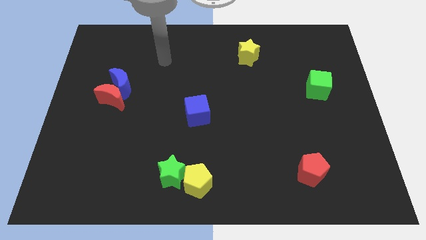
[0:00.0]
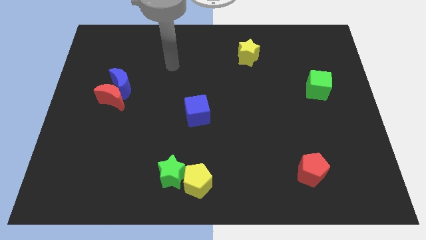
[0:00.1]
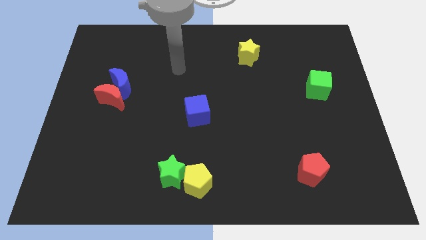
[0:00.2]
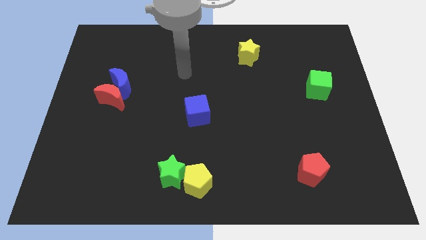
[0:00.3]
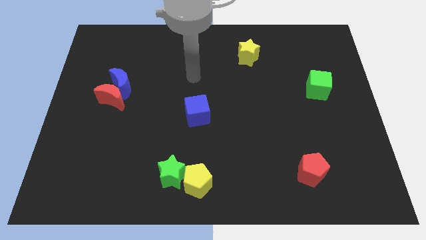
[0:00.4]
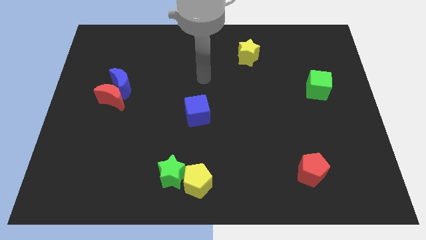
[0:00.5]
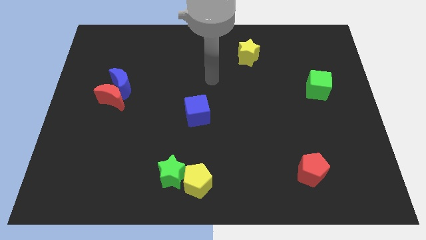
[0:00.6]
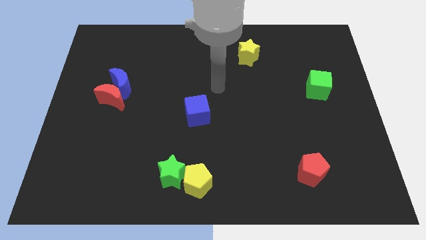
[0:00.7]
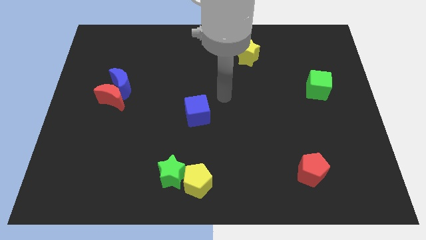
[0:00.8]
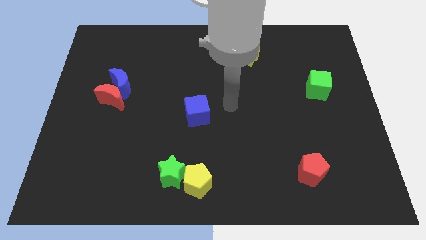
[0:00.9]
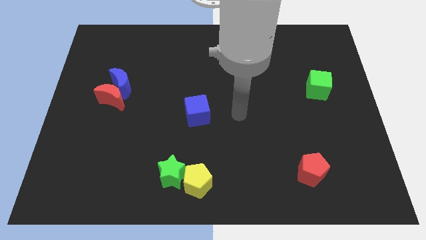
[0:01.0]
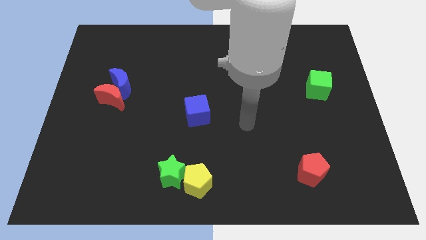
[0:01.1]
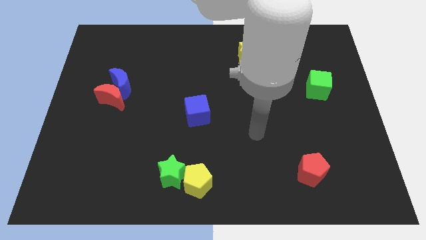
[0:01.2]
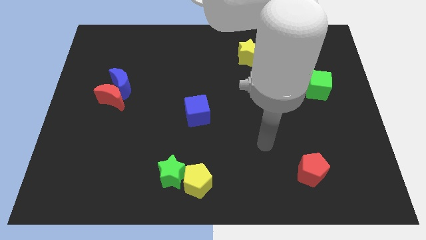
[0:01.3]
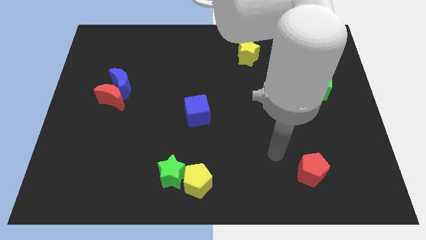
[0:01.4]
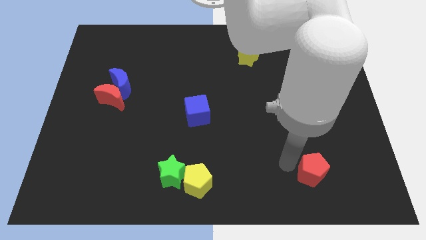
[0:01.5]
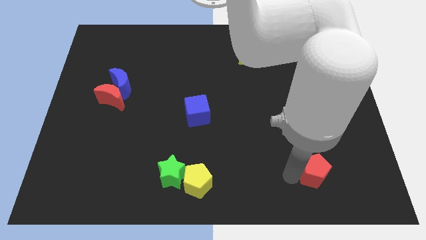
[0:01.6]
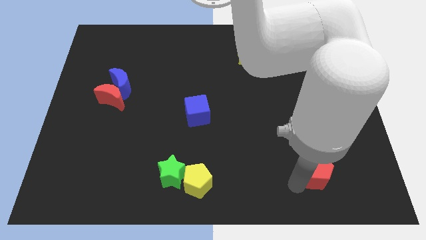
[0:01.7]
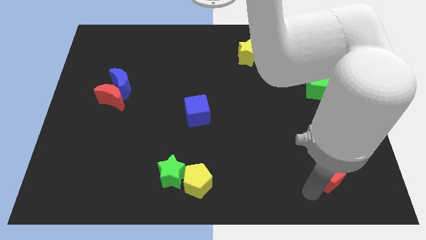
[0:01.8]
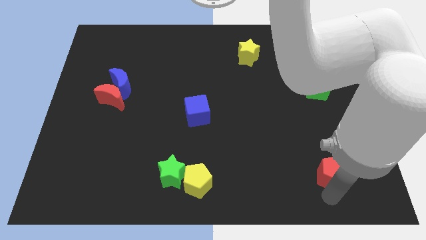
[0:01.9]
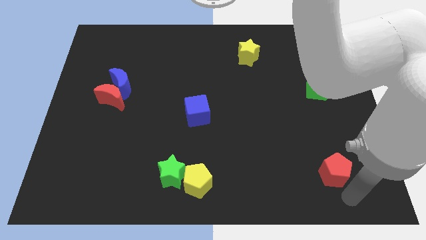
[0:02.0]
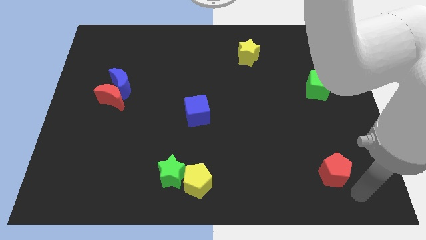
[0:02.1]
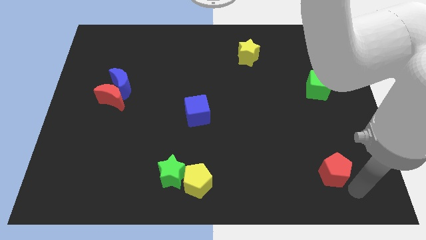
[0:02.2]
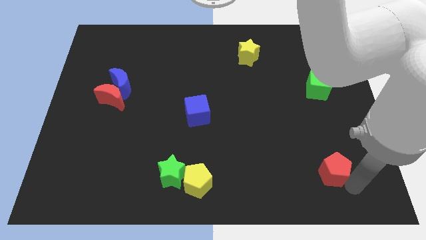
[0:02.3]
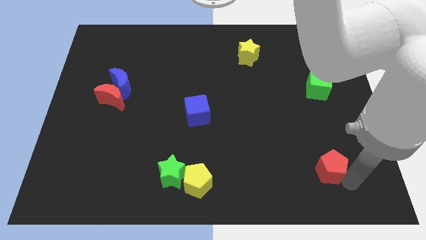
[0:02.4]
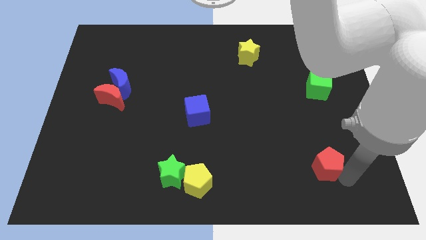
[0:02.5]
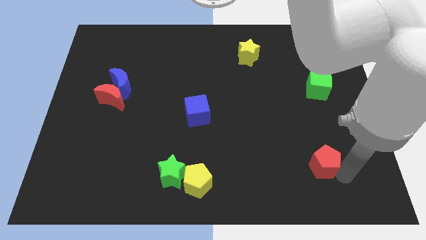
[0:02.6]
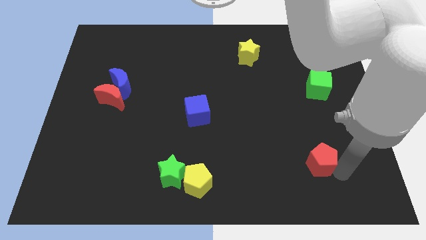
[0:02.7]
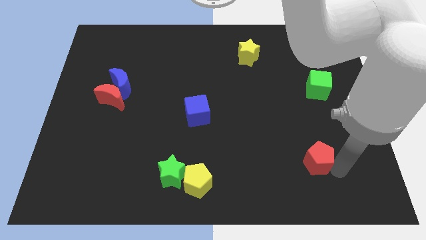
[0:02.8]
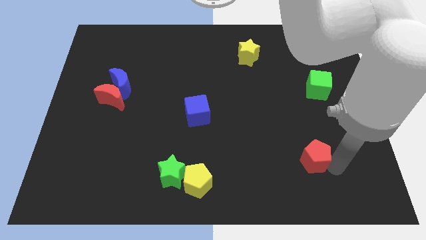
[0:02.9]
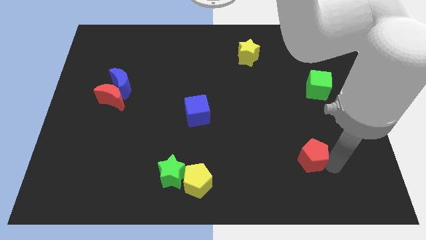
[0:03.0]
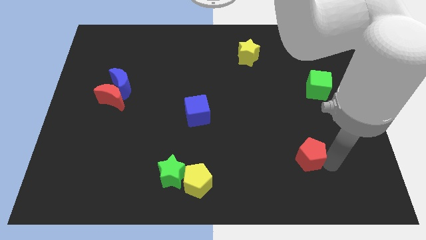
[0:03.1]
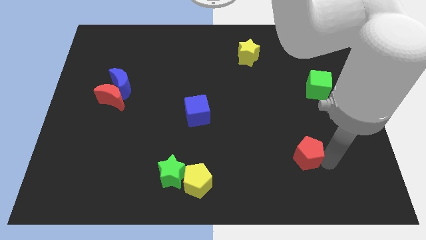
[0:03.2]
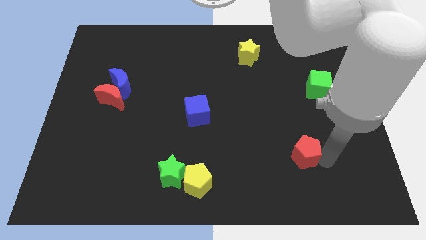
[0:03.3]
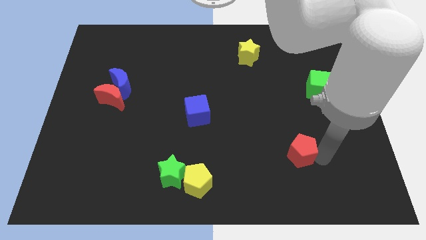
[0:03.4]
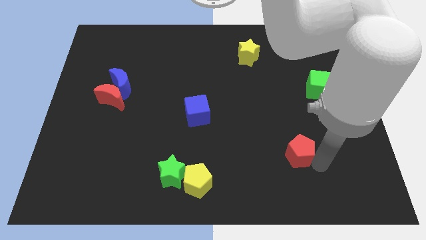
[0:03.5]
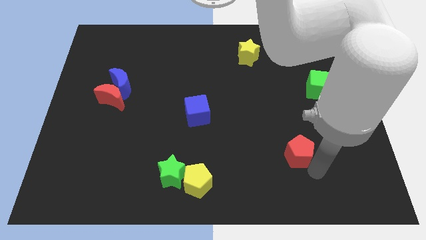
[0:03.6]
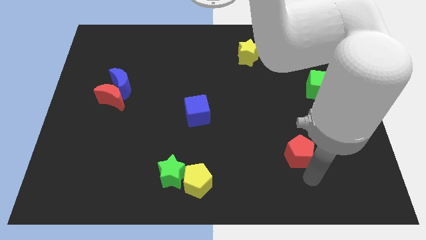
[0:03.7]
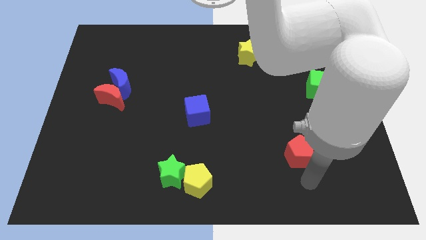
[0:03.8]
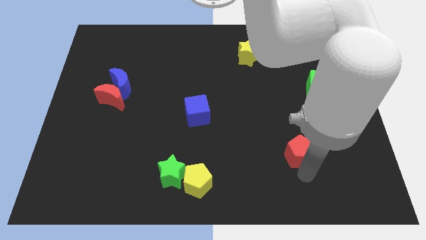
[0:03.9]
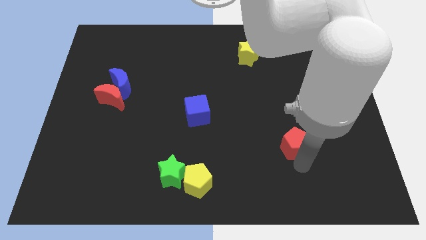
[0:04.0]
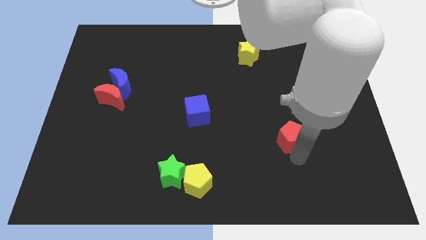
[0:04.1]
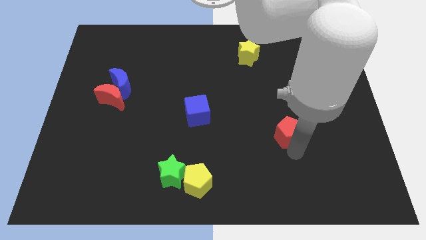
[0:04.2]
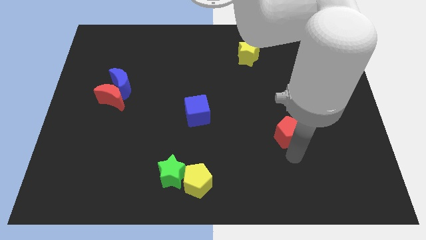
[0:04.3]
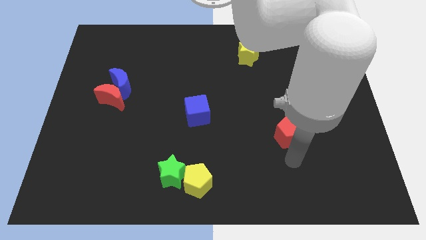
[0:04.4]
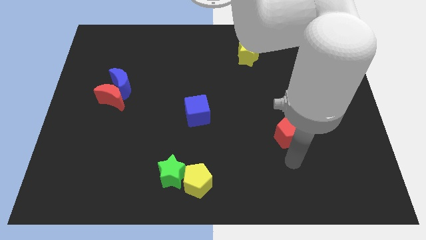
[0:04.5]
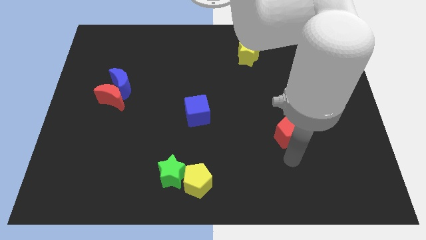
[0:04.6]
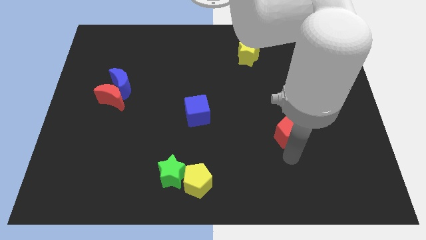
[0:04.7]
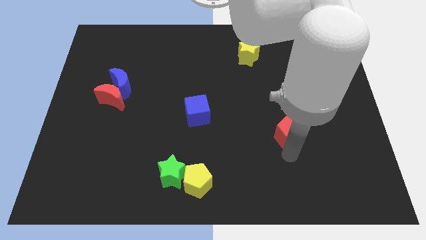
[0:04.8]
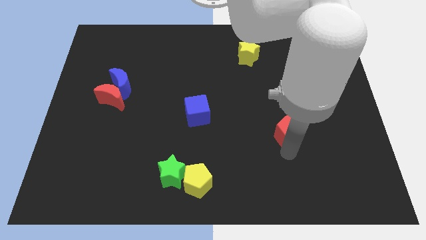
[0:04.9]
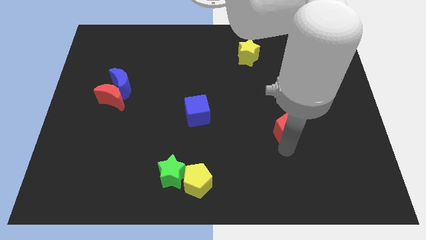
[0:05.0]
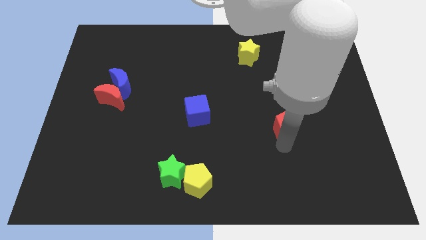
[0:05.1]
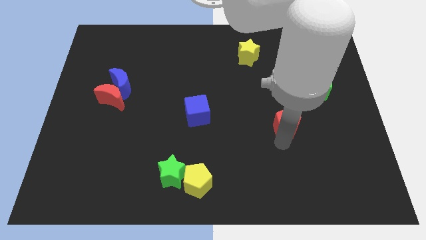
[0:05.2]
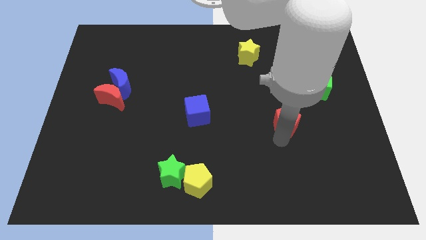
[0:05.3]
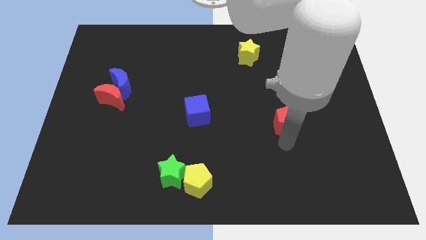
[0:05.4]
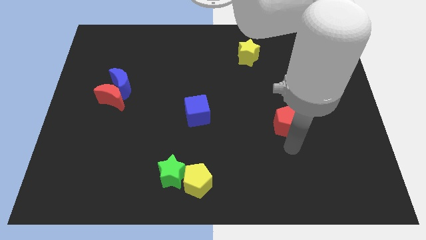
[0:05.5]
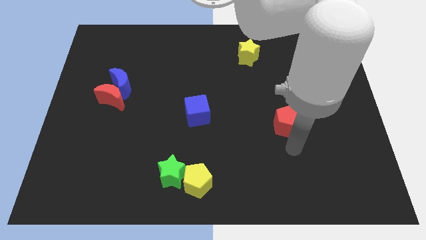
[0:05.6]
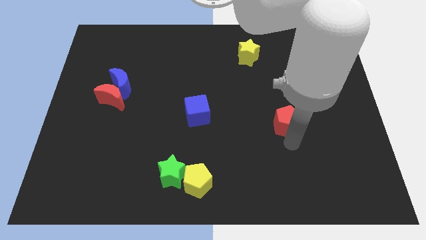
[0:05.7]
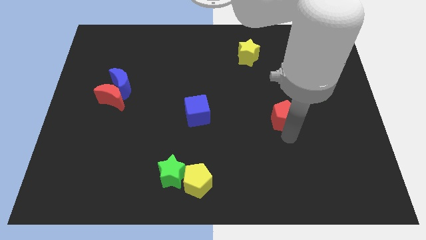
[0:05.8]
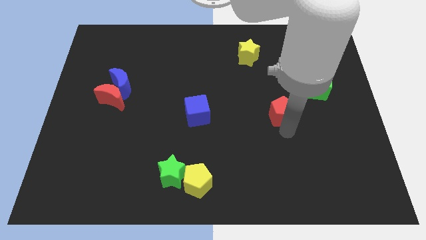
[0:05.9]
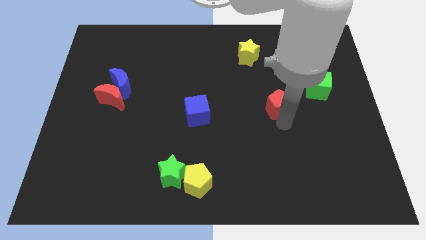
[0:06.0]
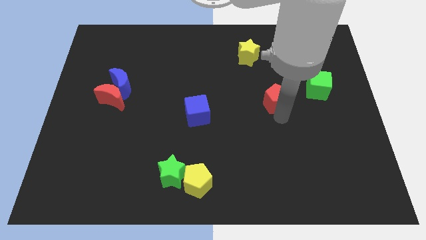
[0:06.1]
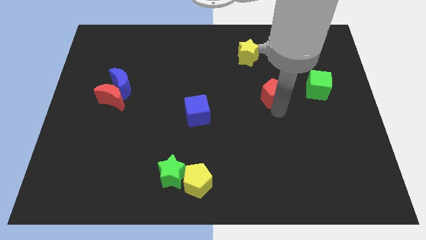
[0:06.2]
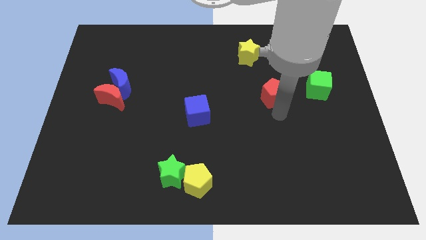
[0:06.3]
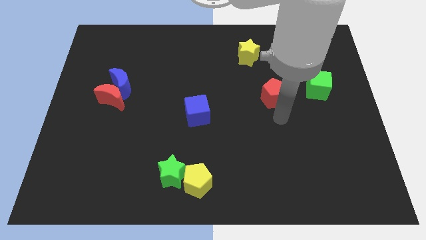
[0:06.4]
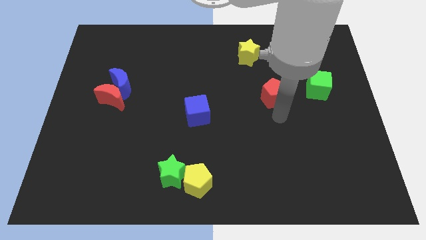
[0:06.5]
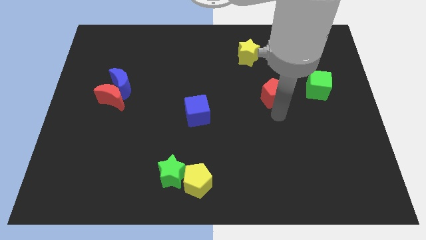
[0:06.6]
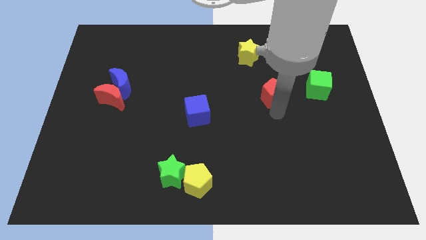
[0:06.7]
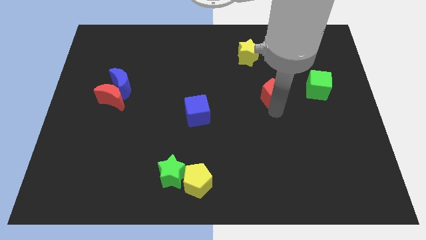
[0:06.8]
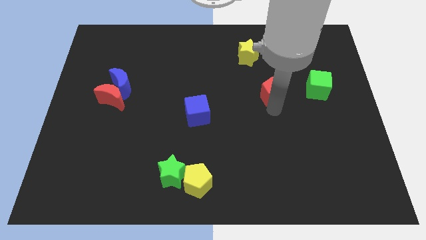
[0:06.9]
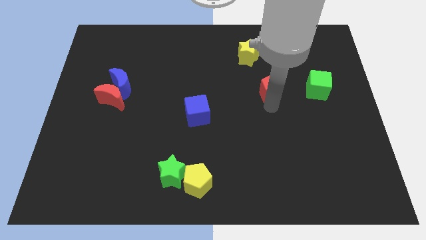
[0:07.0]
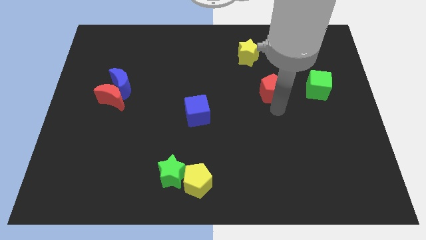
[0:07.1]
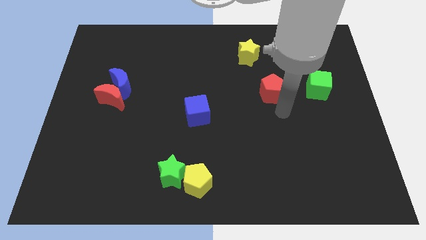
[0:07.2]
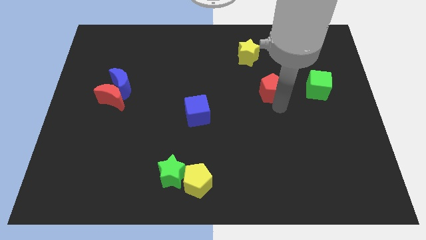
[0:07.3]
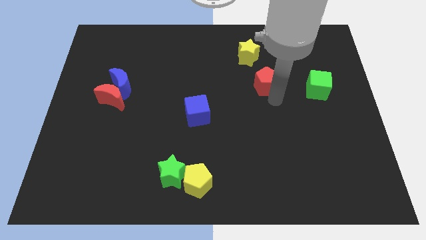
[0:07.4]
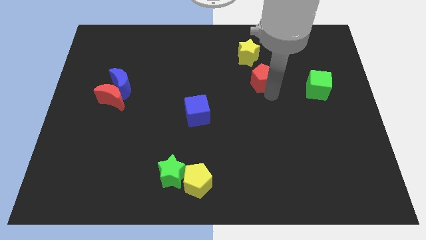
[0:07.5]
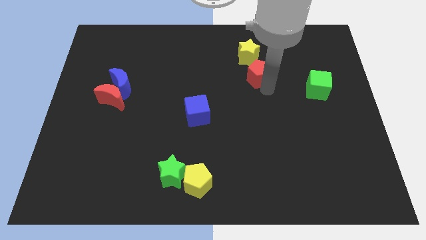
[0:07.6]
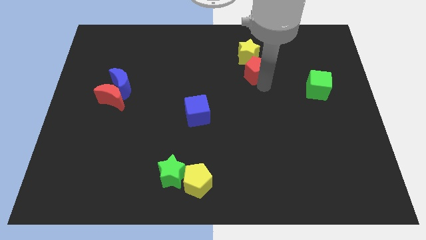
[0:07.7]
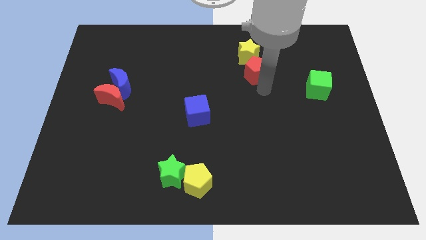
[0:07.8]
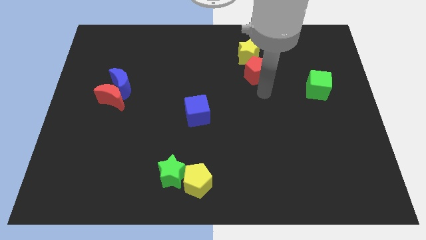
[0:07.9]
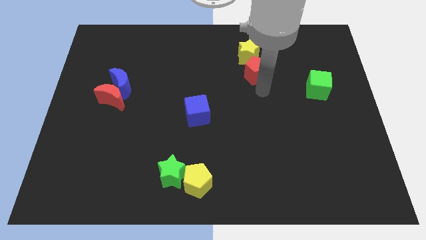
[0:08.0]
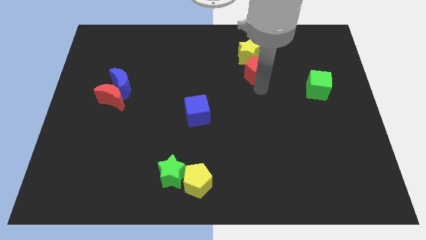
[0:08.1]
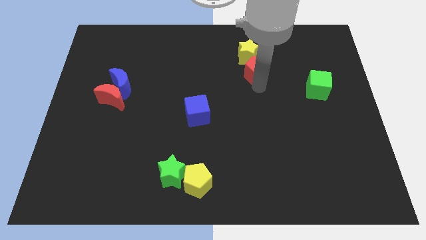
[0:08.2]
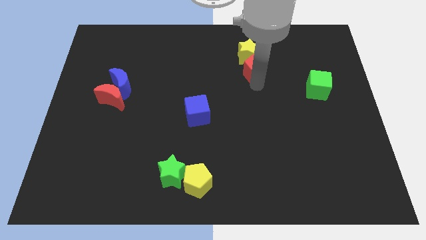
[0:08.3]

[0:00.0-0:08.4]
move the red pentagon to the yellow star
